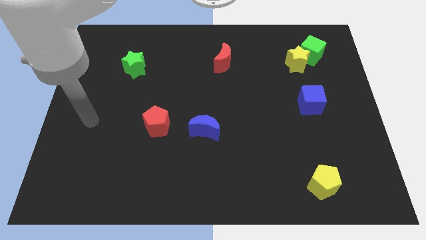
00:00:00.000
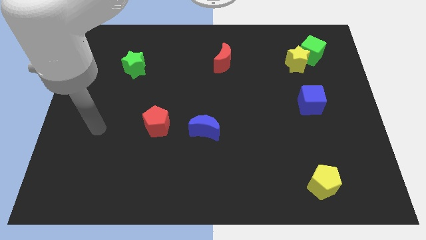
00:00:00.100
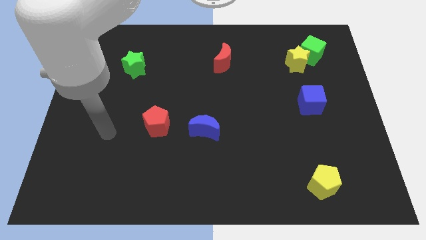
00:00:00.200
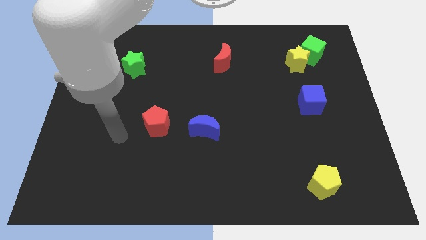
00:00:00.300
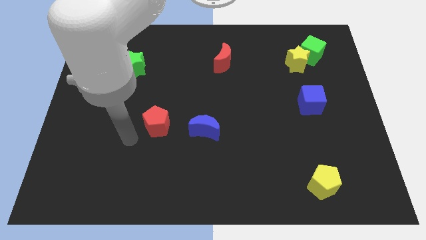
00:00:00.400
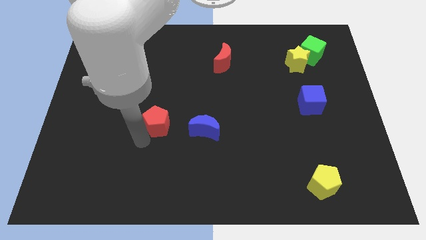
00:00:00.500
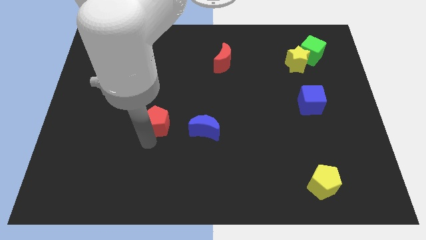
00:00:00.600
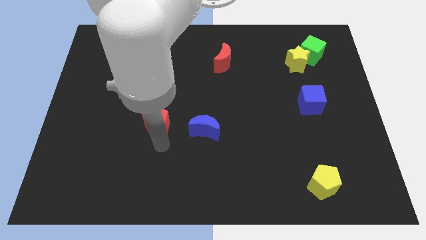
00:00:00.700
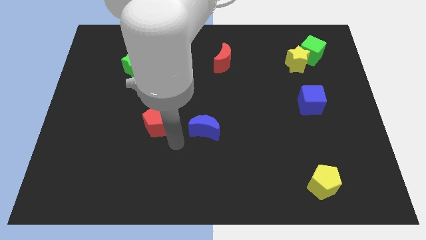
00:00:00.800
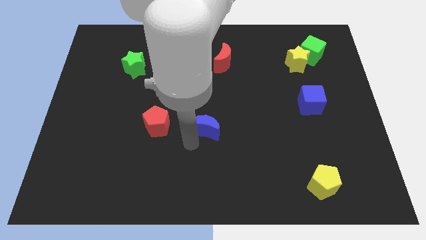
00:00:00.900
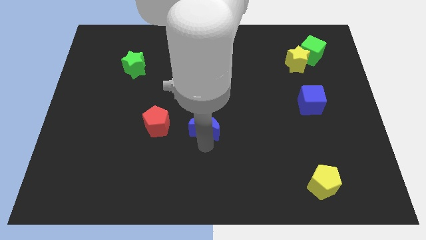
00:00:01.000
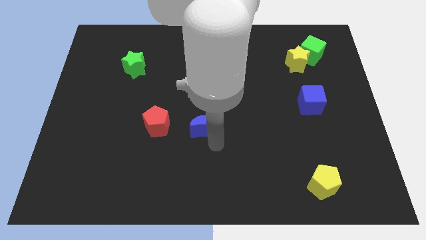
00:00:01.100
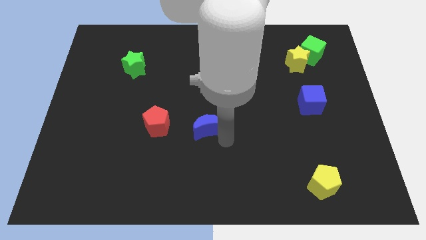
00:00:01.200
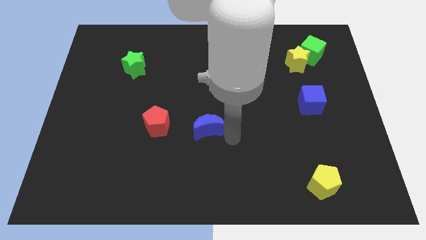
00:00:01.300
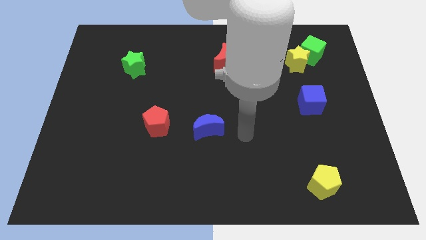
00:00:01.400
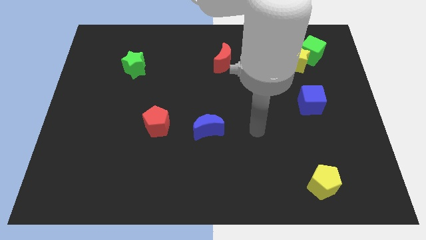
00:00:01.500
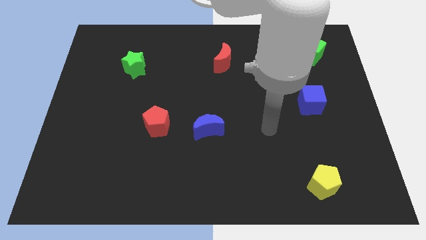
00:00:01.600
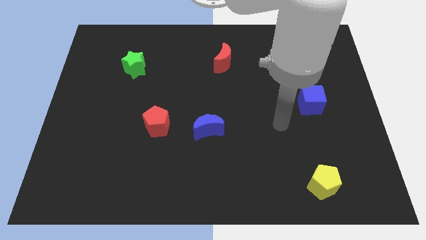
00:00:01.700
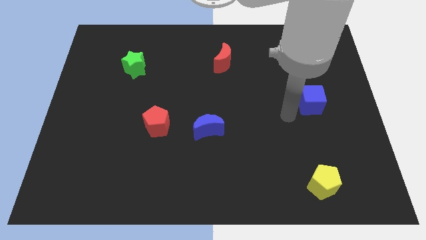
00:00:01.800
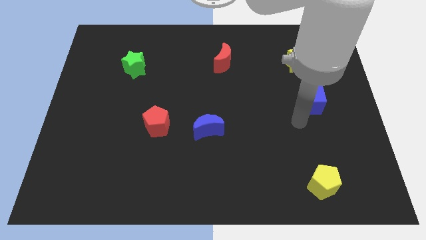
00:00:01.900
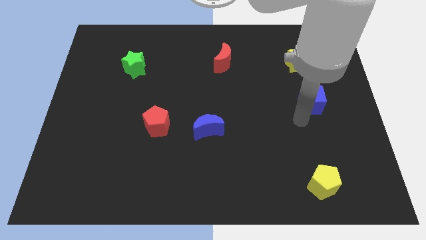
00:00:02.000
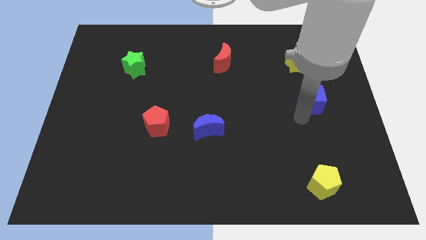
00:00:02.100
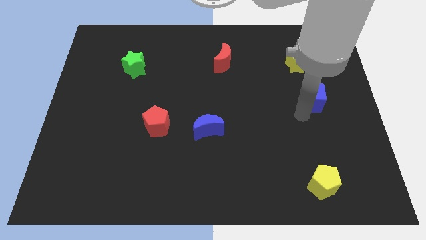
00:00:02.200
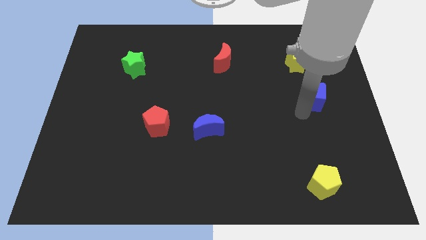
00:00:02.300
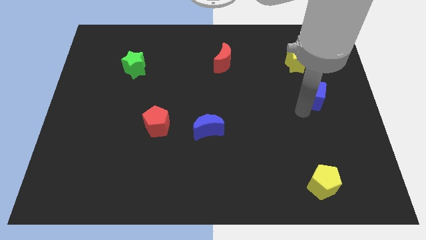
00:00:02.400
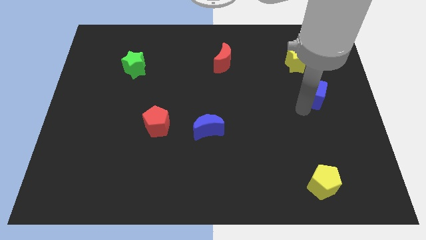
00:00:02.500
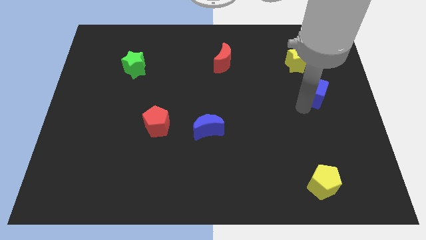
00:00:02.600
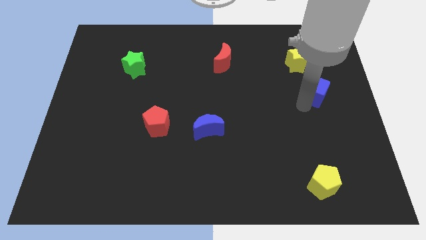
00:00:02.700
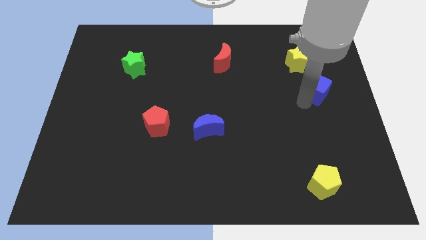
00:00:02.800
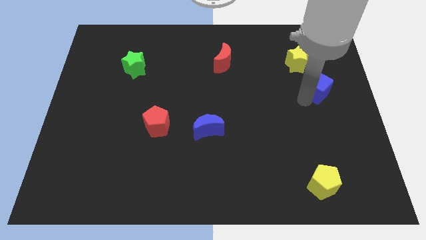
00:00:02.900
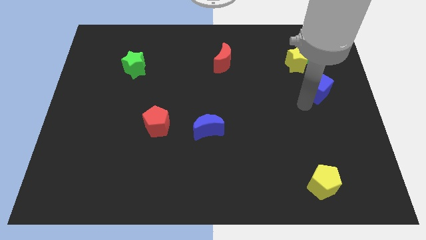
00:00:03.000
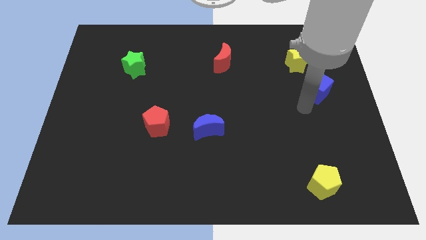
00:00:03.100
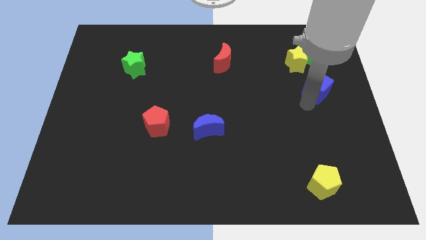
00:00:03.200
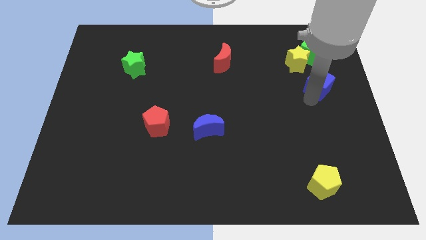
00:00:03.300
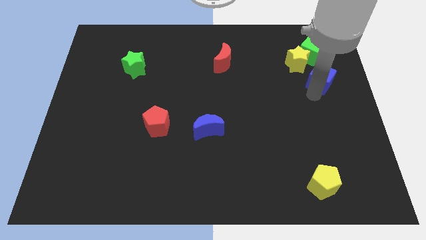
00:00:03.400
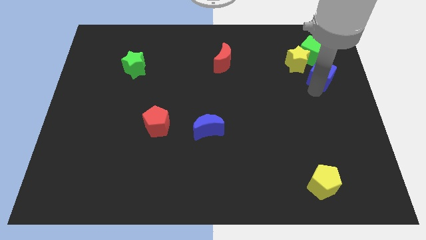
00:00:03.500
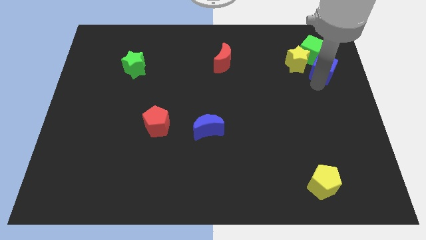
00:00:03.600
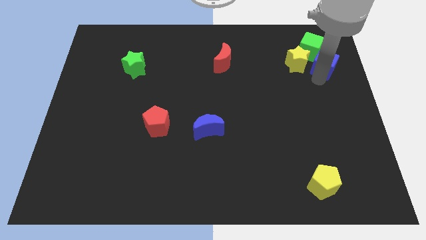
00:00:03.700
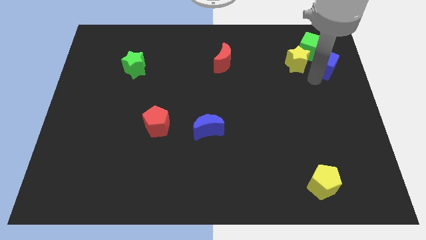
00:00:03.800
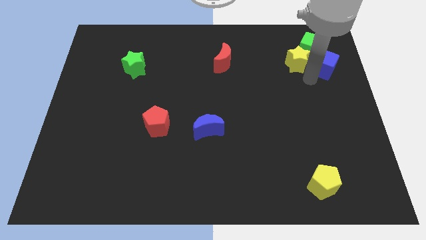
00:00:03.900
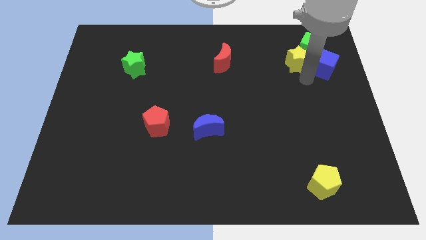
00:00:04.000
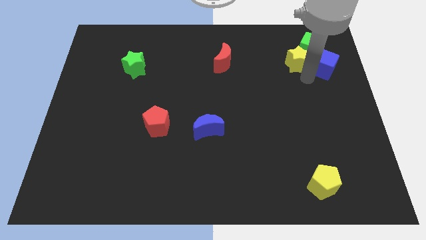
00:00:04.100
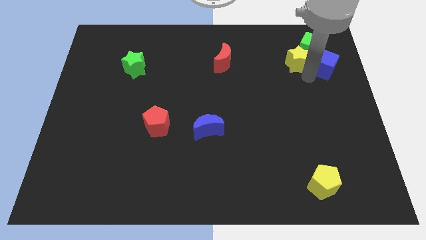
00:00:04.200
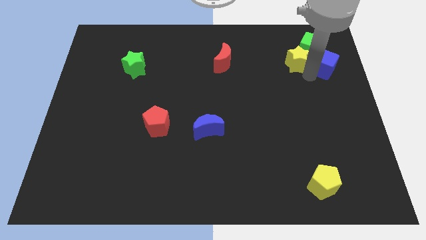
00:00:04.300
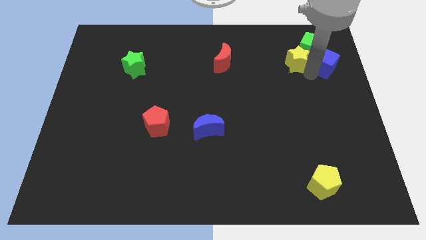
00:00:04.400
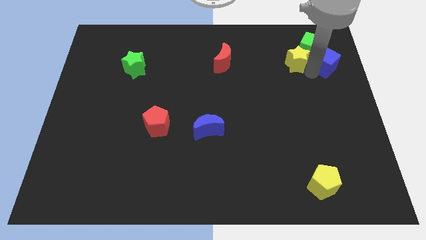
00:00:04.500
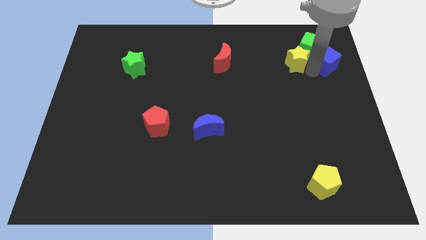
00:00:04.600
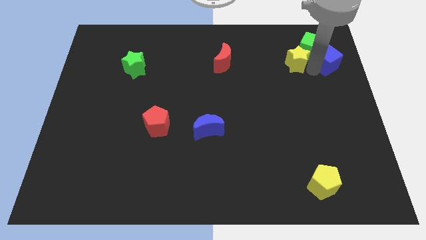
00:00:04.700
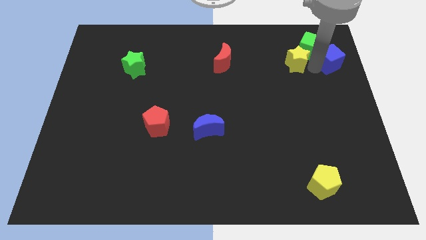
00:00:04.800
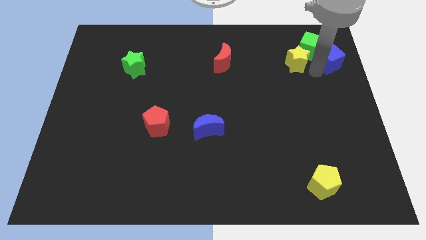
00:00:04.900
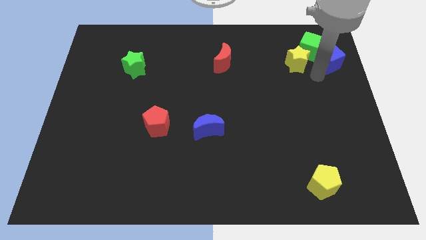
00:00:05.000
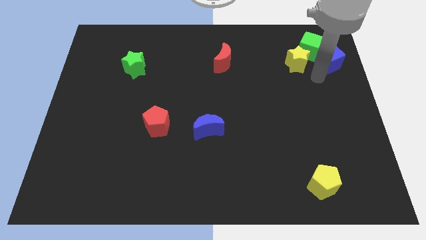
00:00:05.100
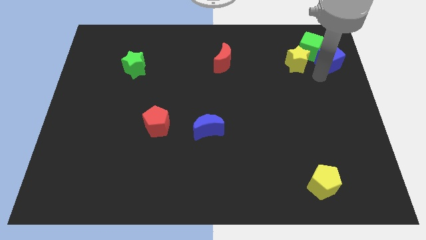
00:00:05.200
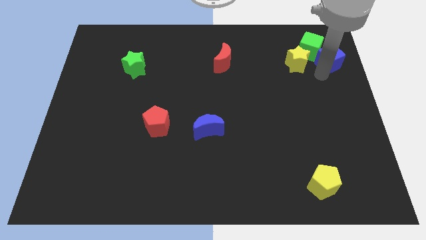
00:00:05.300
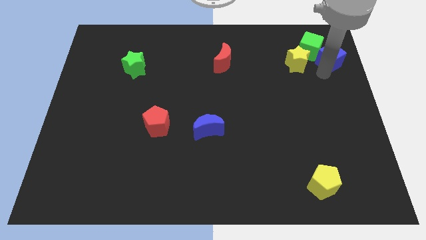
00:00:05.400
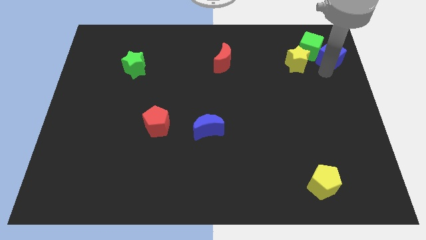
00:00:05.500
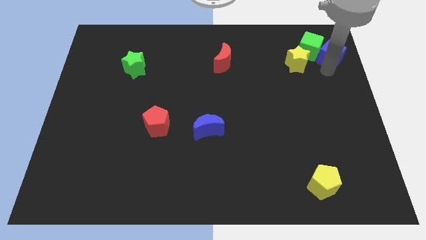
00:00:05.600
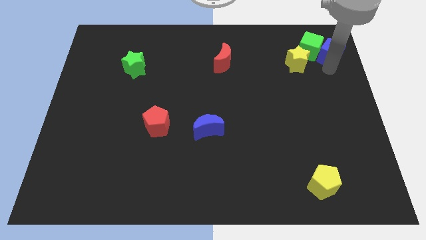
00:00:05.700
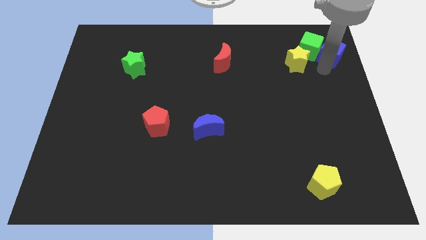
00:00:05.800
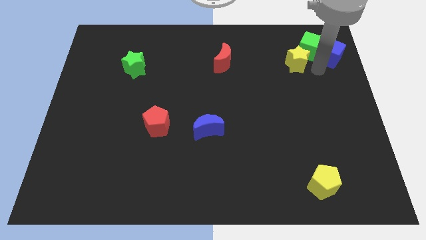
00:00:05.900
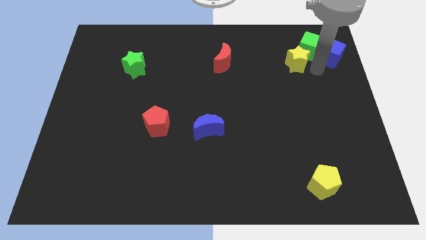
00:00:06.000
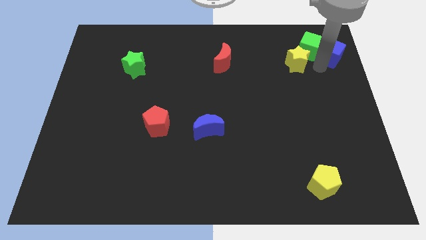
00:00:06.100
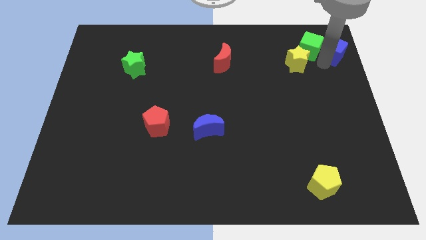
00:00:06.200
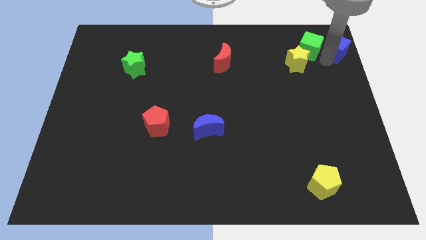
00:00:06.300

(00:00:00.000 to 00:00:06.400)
slide the blue cube to the top right of the board
